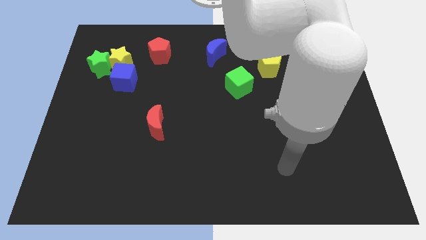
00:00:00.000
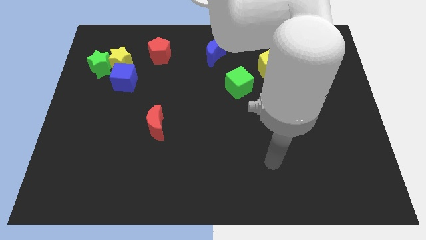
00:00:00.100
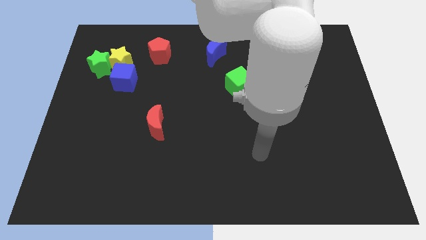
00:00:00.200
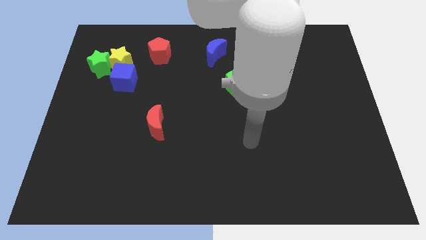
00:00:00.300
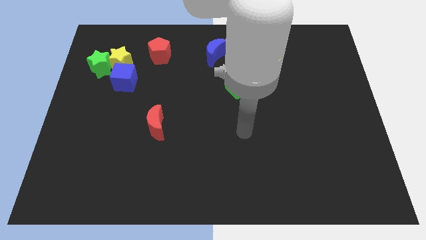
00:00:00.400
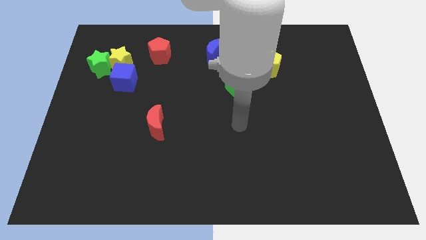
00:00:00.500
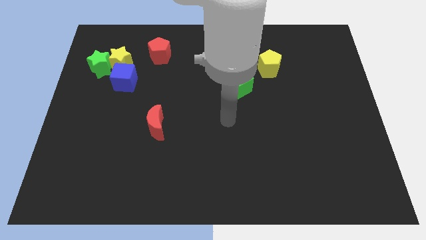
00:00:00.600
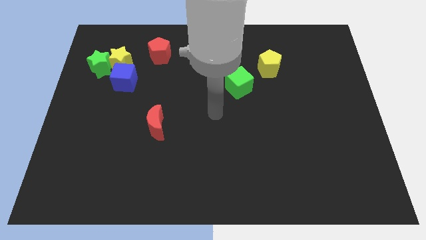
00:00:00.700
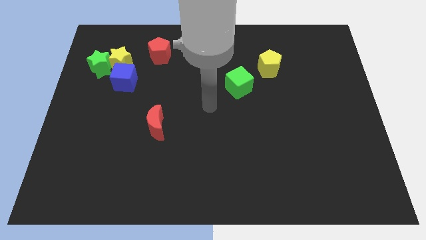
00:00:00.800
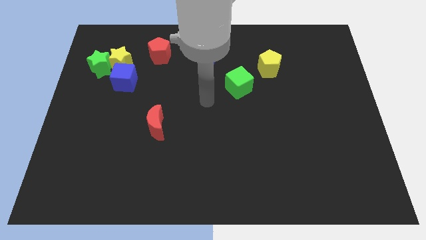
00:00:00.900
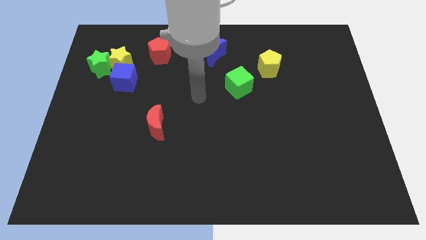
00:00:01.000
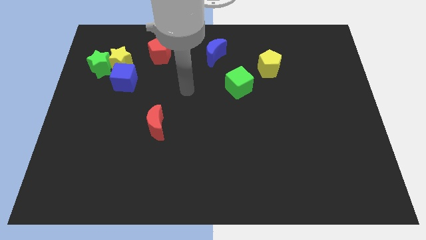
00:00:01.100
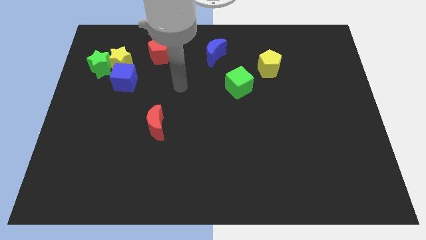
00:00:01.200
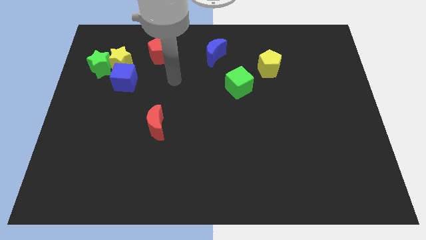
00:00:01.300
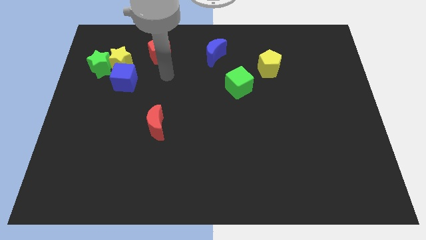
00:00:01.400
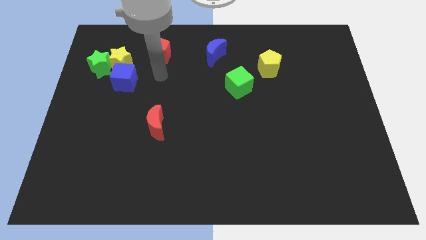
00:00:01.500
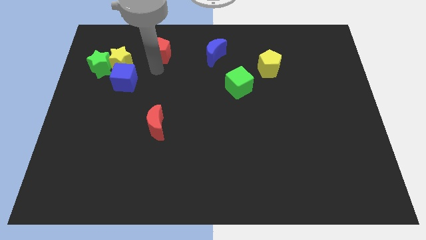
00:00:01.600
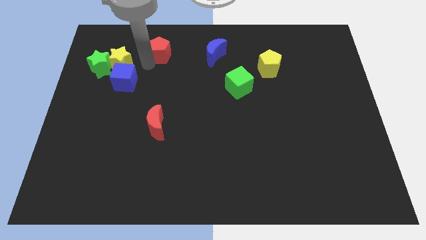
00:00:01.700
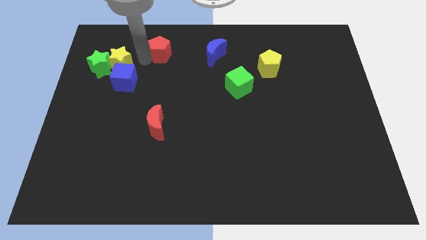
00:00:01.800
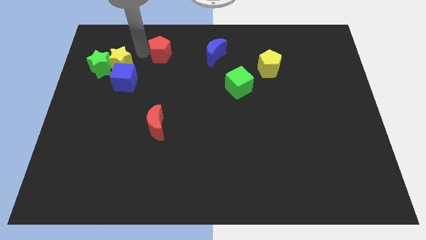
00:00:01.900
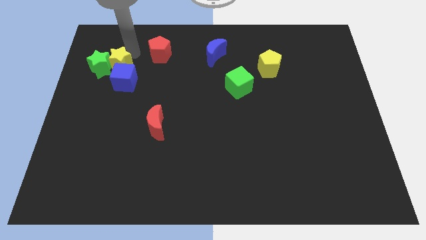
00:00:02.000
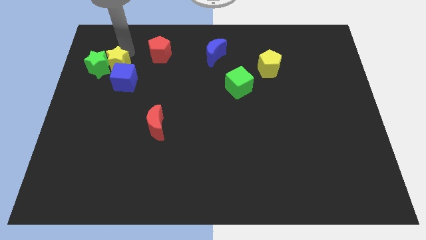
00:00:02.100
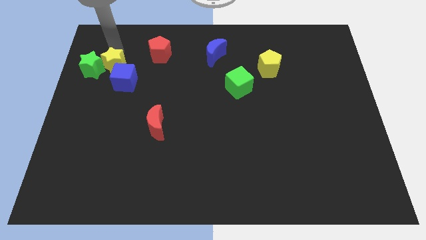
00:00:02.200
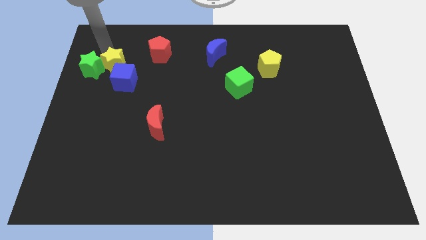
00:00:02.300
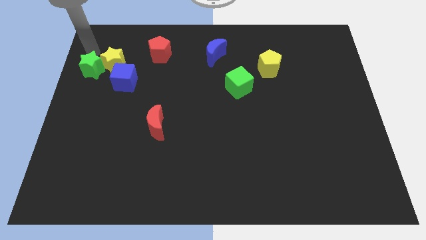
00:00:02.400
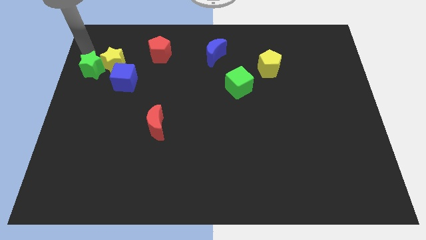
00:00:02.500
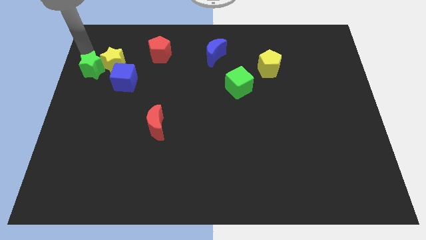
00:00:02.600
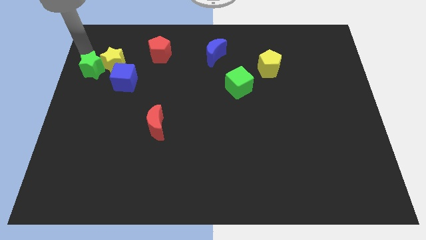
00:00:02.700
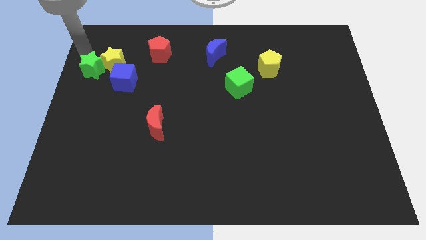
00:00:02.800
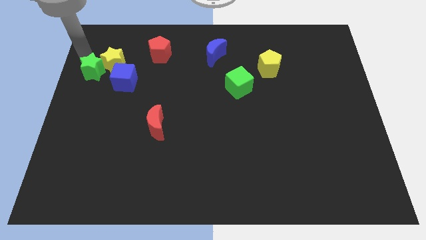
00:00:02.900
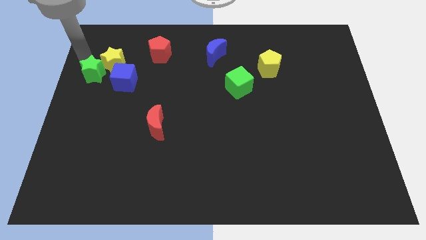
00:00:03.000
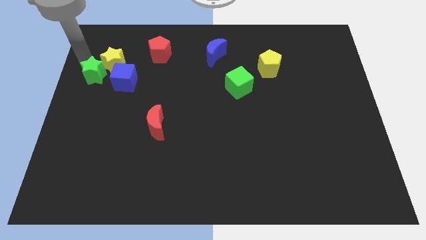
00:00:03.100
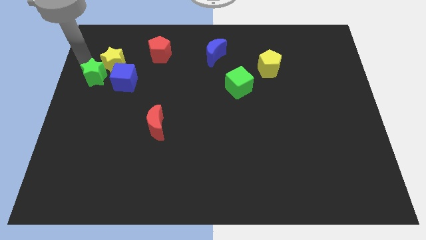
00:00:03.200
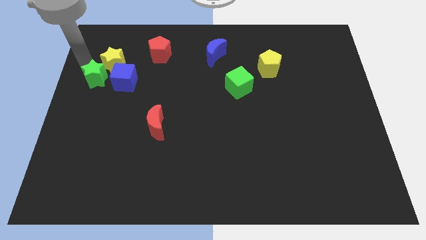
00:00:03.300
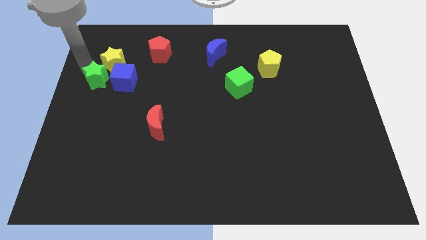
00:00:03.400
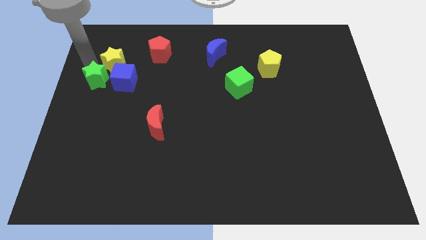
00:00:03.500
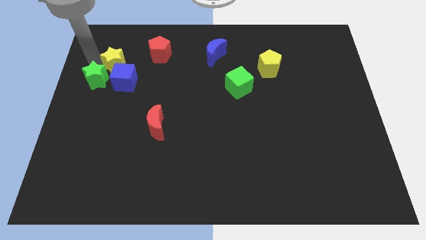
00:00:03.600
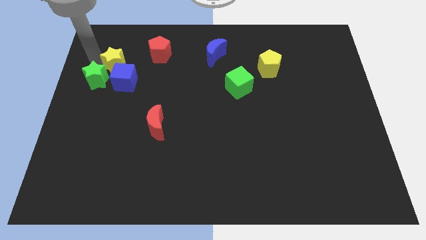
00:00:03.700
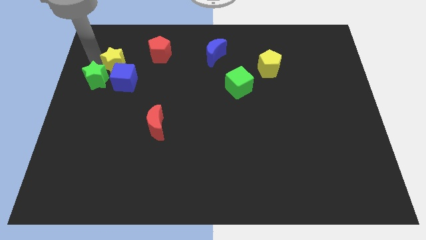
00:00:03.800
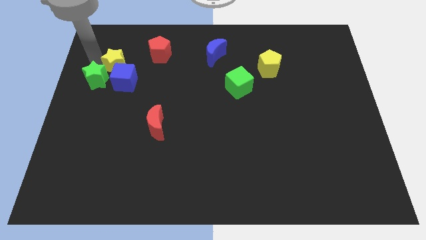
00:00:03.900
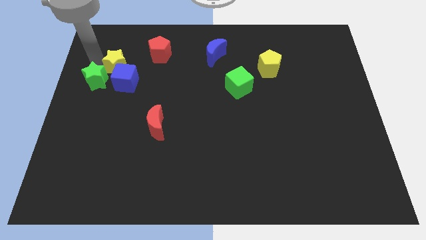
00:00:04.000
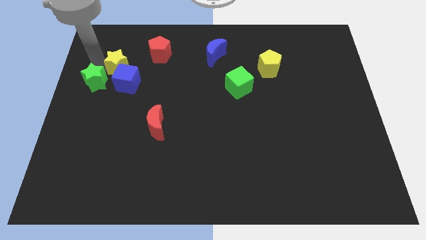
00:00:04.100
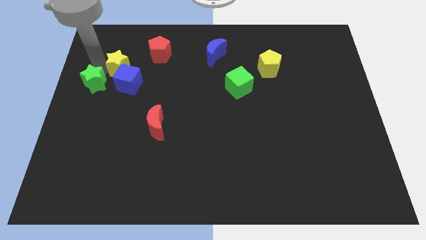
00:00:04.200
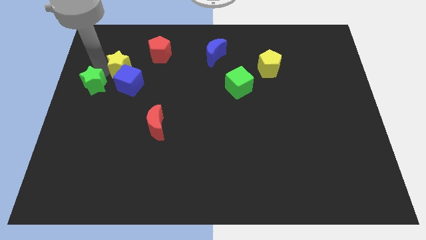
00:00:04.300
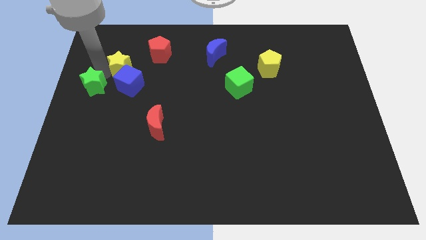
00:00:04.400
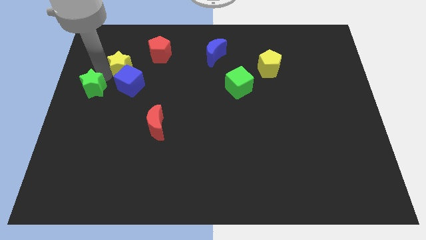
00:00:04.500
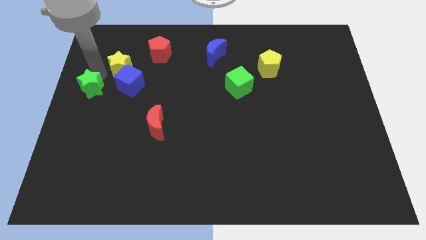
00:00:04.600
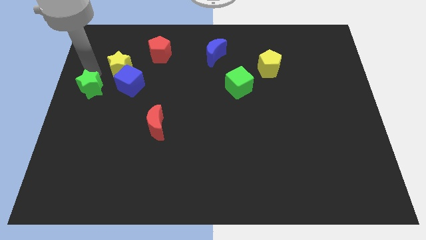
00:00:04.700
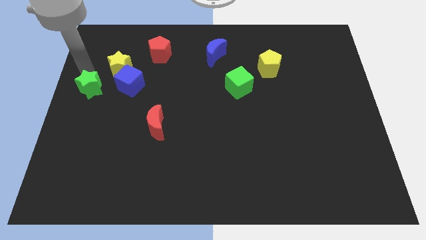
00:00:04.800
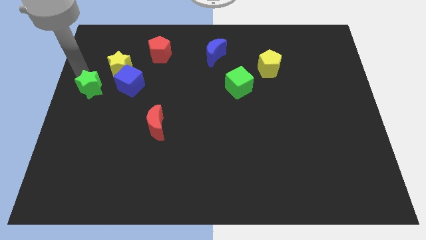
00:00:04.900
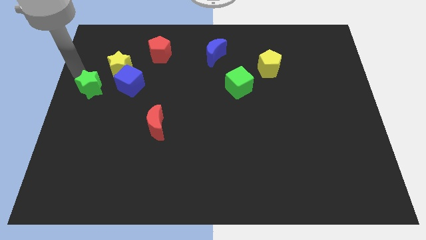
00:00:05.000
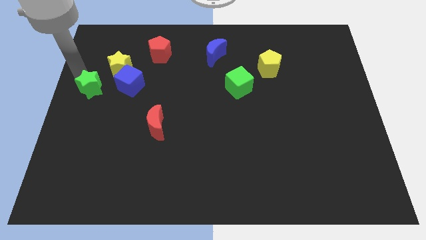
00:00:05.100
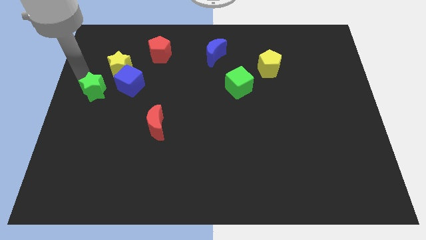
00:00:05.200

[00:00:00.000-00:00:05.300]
move the green star to the bottom left of the blue cube

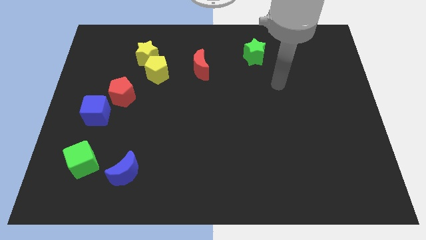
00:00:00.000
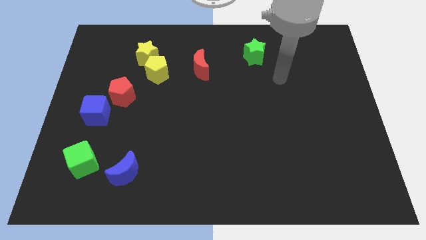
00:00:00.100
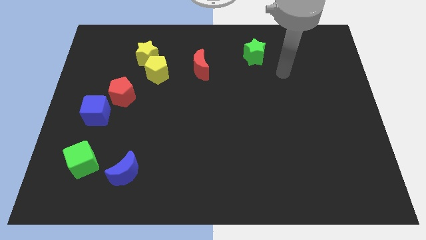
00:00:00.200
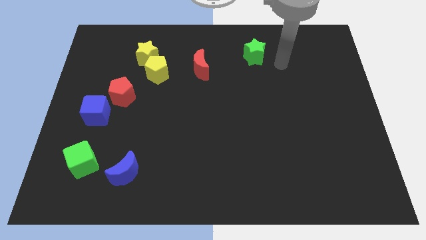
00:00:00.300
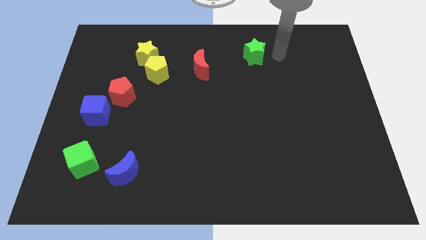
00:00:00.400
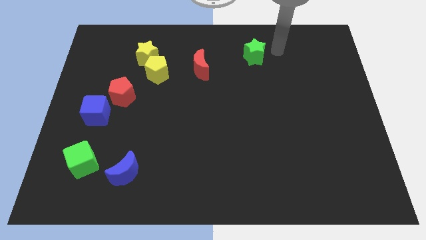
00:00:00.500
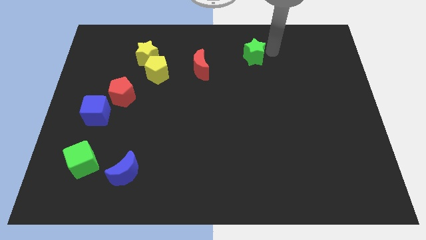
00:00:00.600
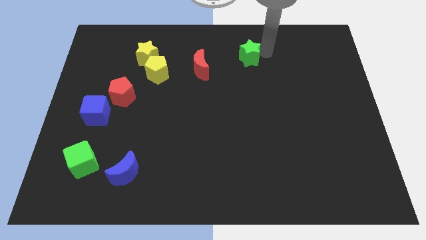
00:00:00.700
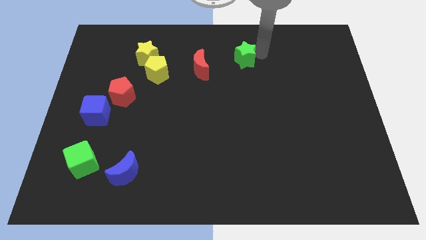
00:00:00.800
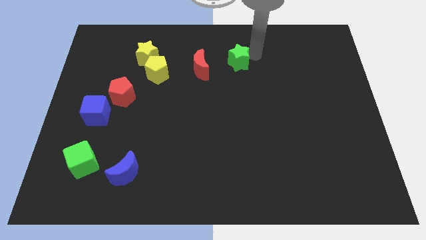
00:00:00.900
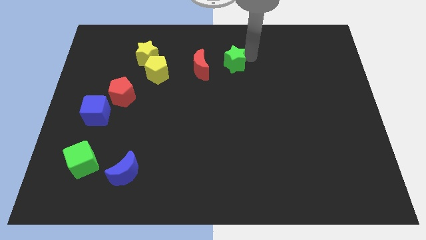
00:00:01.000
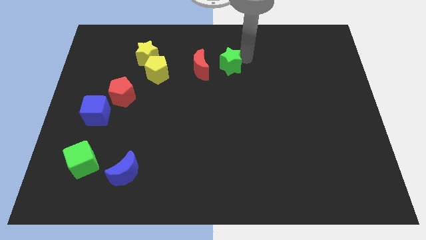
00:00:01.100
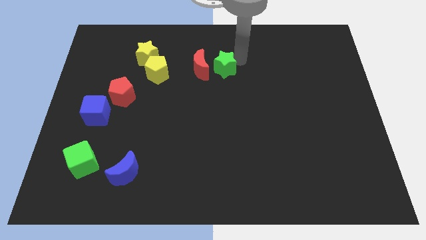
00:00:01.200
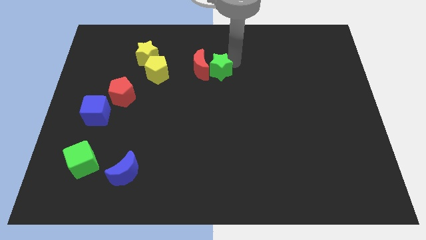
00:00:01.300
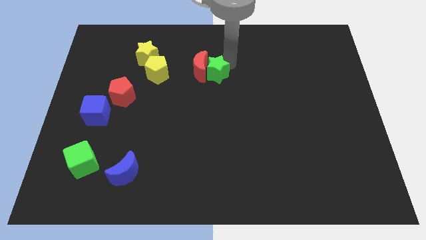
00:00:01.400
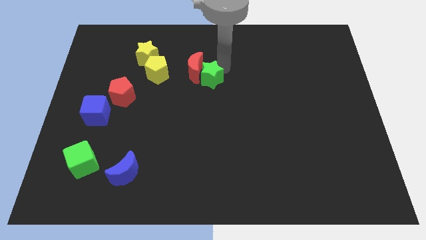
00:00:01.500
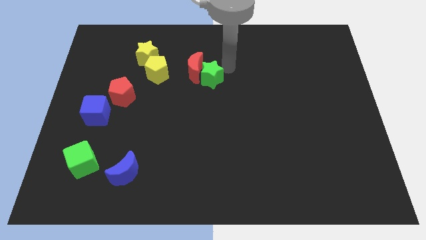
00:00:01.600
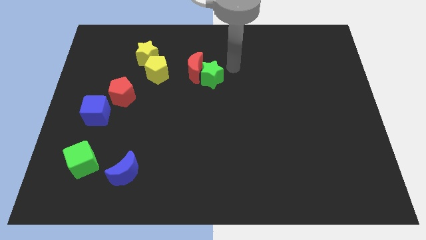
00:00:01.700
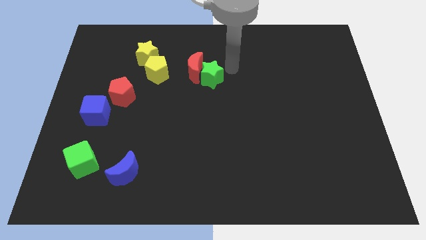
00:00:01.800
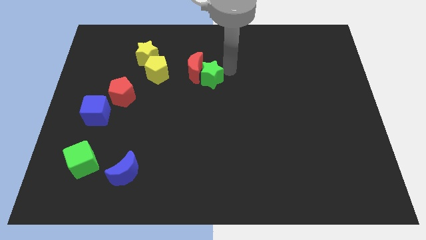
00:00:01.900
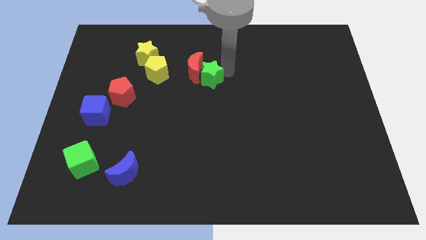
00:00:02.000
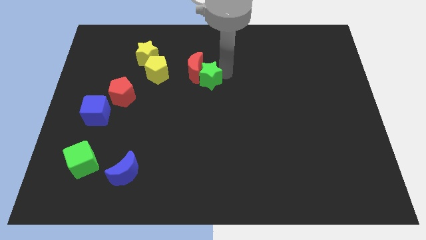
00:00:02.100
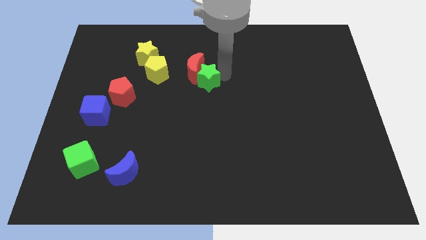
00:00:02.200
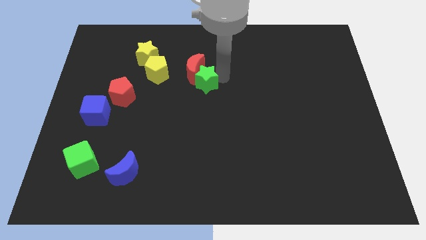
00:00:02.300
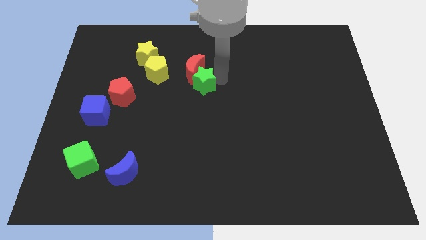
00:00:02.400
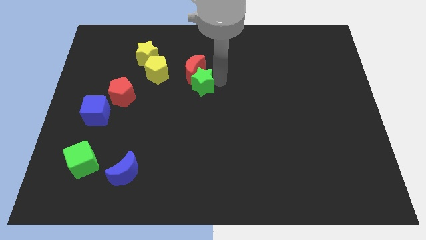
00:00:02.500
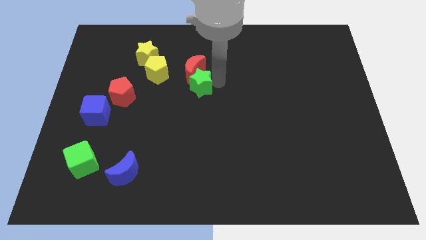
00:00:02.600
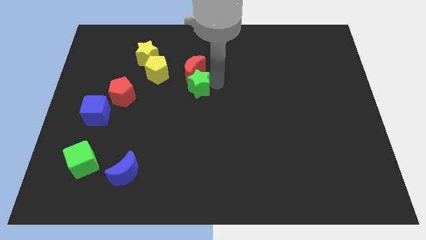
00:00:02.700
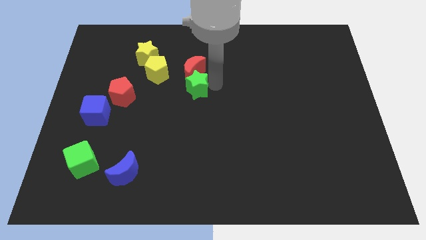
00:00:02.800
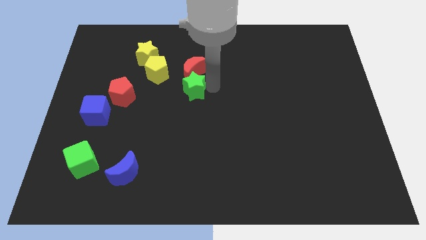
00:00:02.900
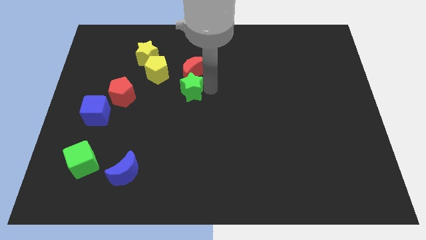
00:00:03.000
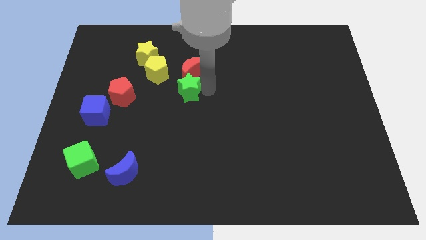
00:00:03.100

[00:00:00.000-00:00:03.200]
put the green star right of the red pentagon
